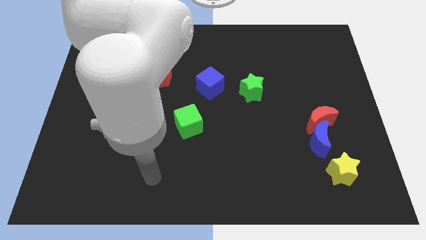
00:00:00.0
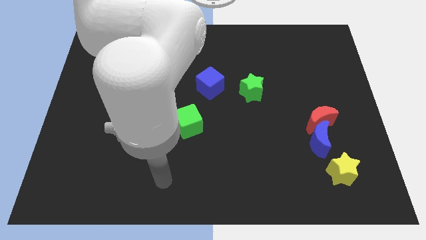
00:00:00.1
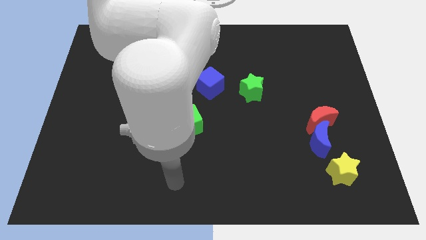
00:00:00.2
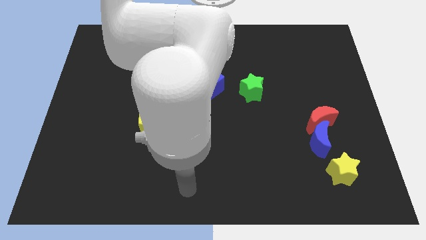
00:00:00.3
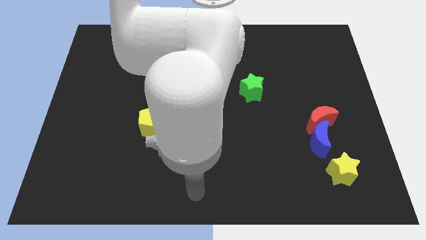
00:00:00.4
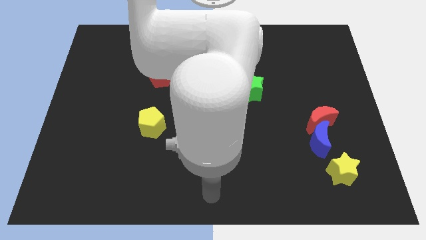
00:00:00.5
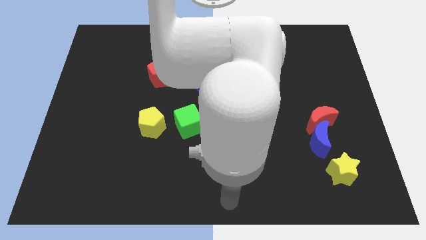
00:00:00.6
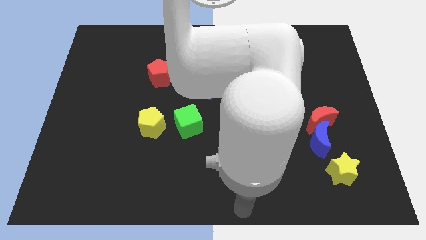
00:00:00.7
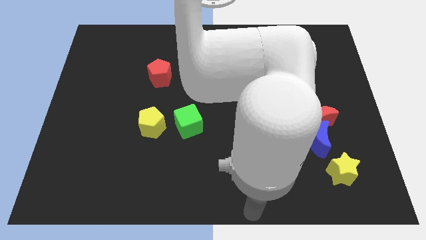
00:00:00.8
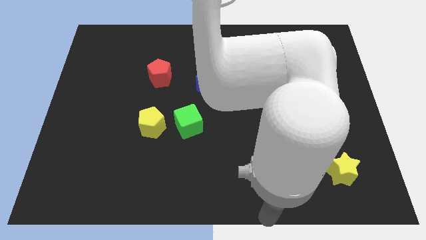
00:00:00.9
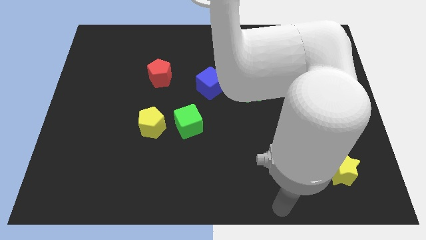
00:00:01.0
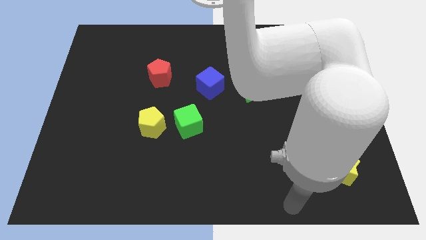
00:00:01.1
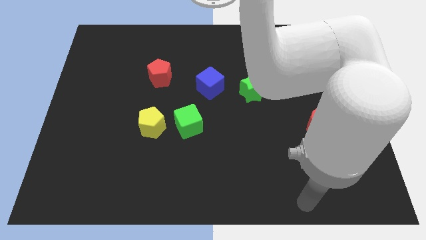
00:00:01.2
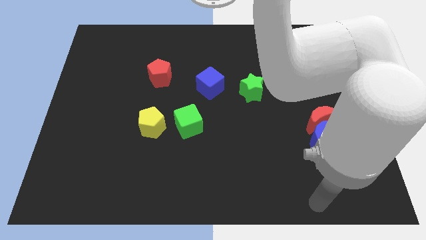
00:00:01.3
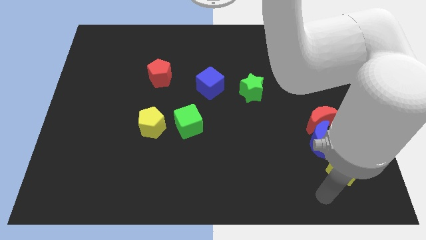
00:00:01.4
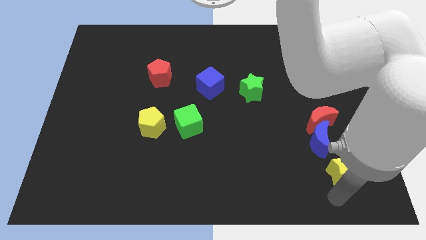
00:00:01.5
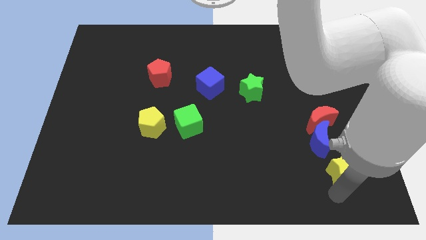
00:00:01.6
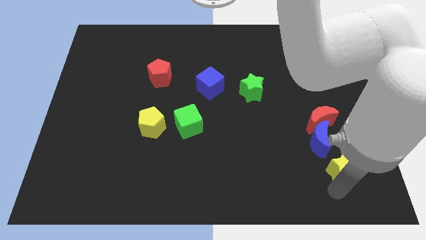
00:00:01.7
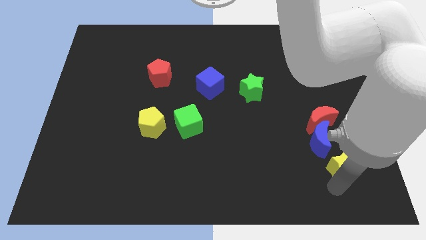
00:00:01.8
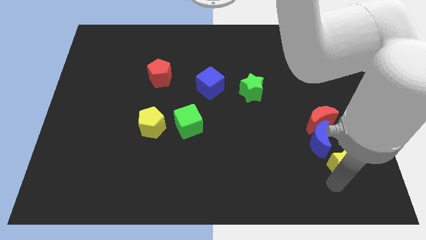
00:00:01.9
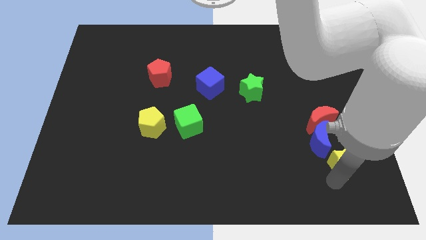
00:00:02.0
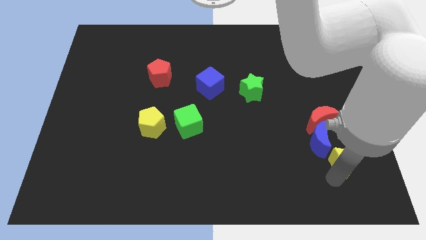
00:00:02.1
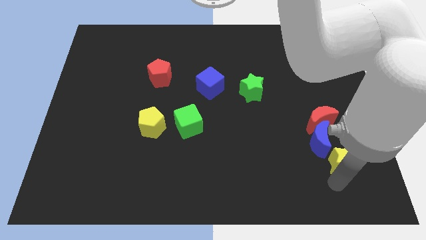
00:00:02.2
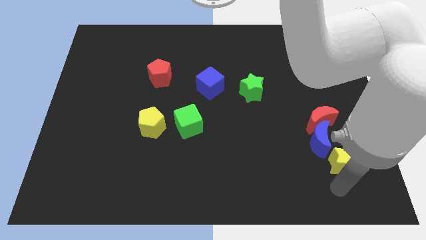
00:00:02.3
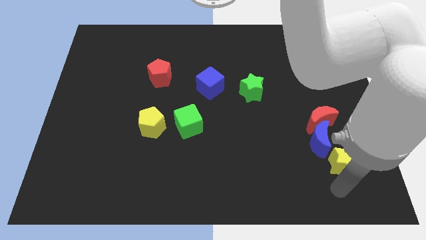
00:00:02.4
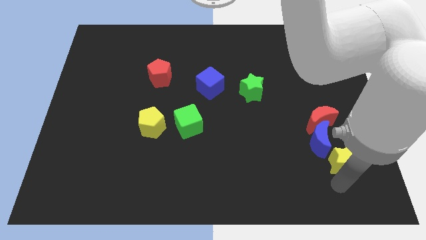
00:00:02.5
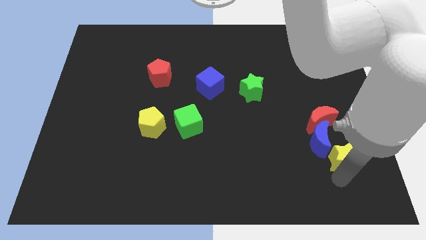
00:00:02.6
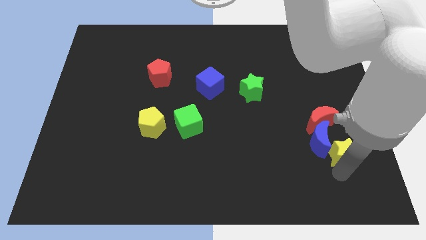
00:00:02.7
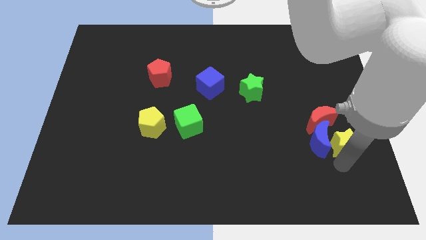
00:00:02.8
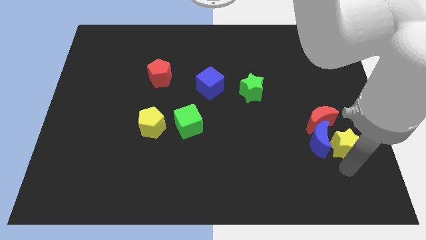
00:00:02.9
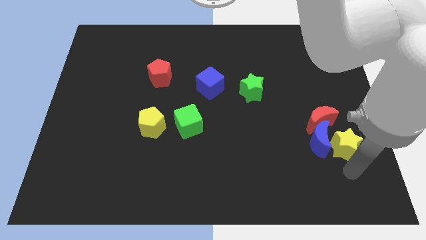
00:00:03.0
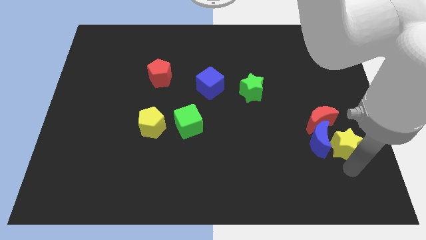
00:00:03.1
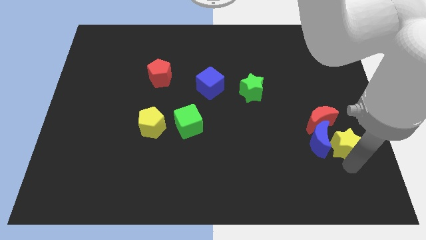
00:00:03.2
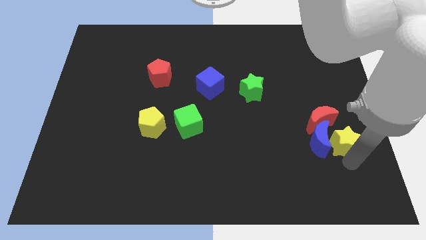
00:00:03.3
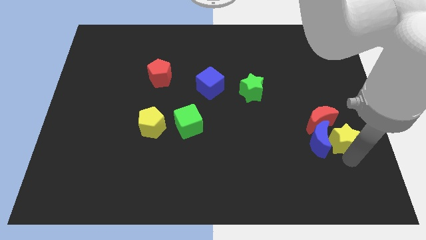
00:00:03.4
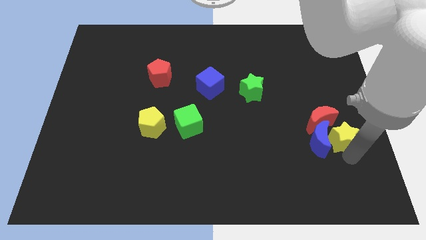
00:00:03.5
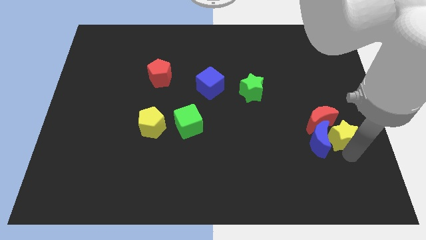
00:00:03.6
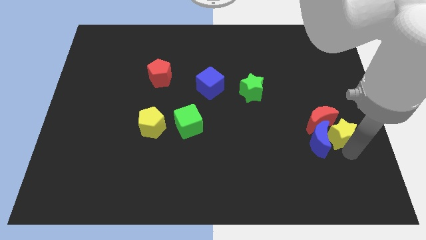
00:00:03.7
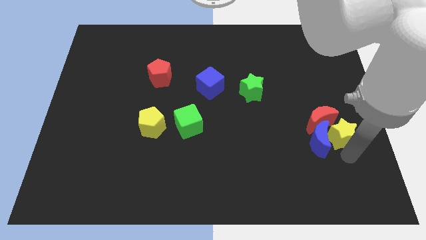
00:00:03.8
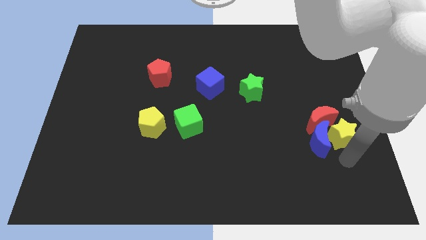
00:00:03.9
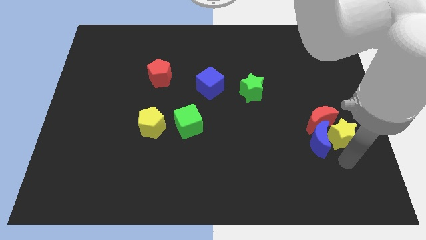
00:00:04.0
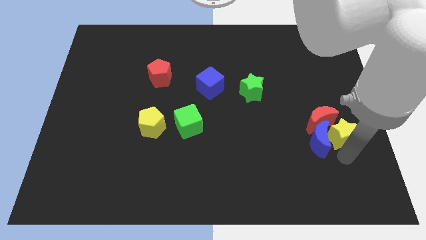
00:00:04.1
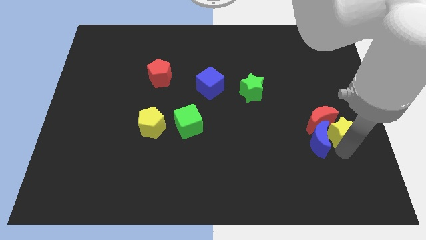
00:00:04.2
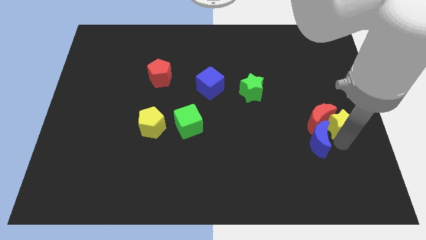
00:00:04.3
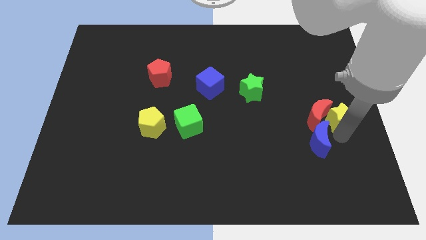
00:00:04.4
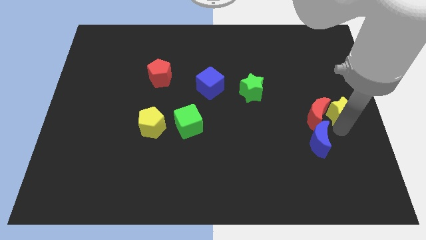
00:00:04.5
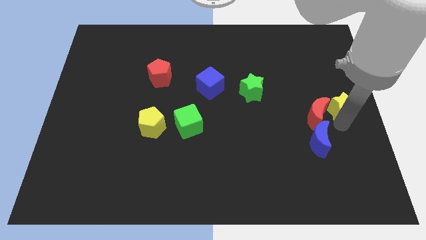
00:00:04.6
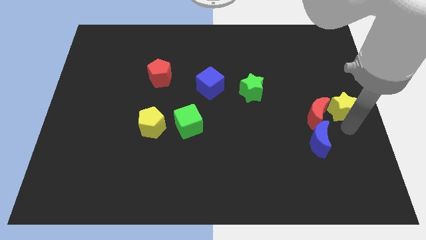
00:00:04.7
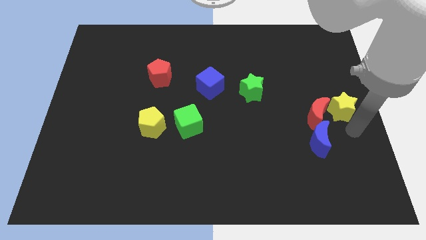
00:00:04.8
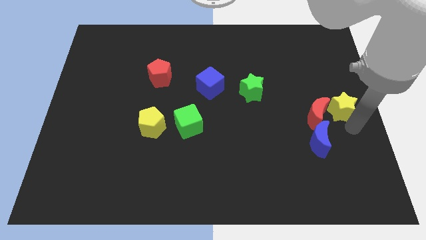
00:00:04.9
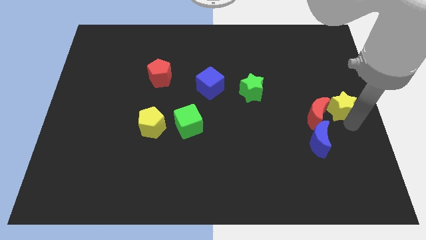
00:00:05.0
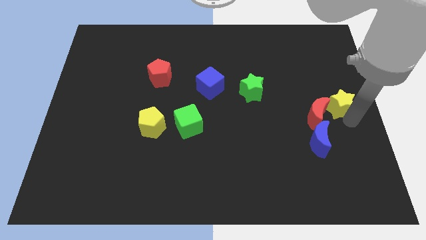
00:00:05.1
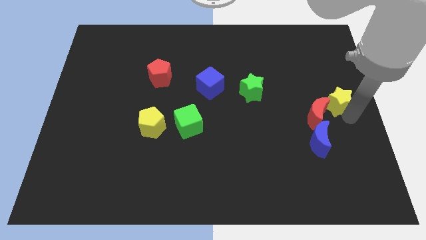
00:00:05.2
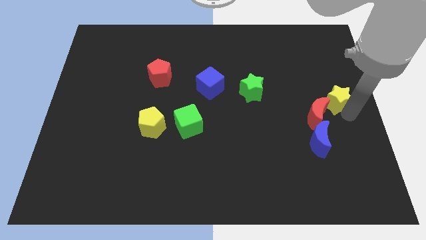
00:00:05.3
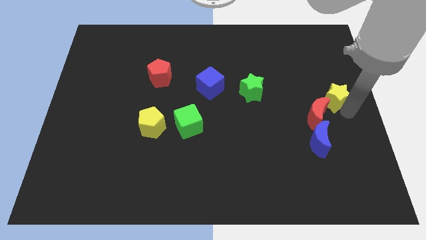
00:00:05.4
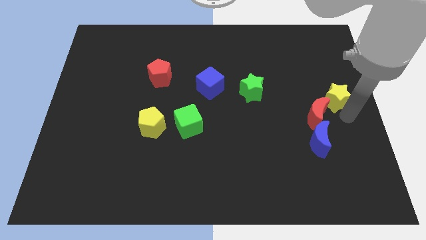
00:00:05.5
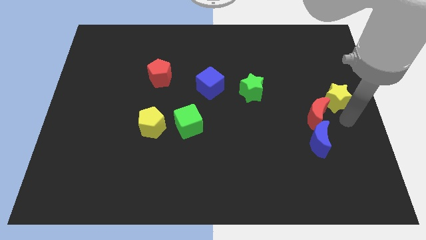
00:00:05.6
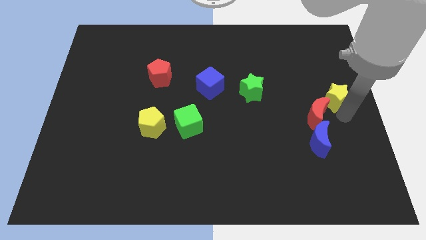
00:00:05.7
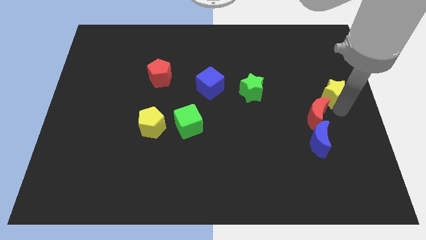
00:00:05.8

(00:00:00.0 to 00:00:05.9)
move the yellow star upwards

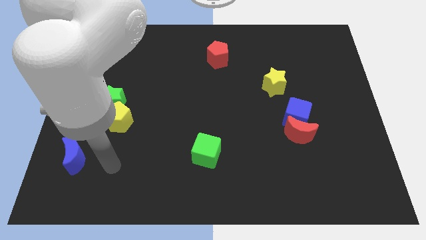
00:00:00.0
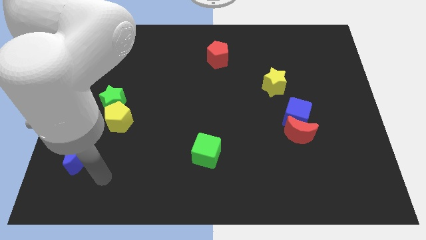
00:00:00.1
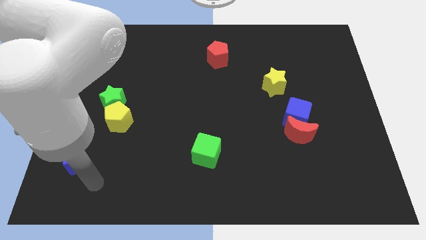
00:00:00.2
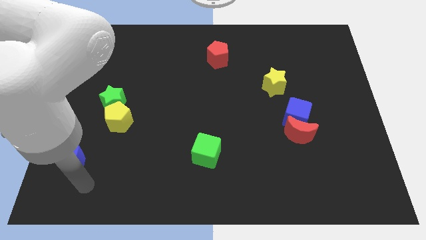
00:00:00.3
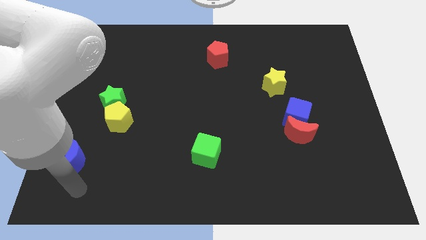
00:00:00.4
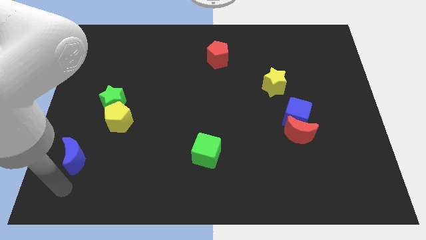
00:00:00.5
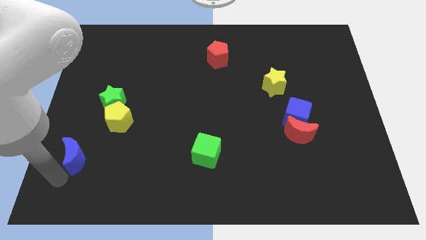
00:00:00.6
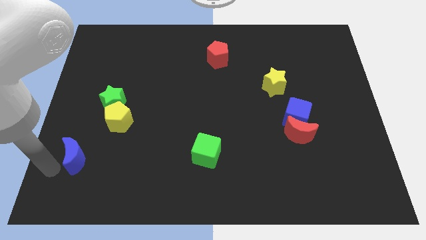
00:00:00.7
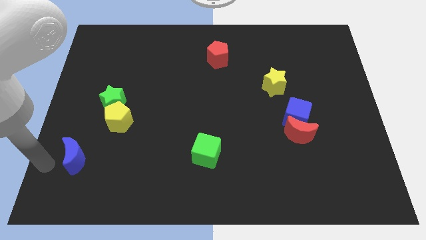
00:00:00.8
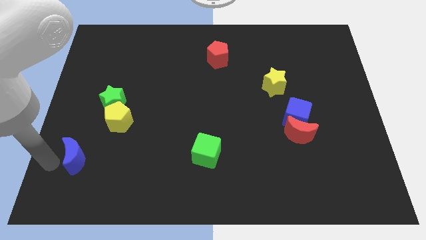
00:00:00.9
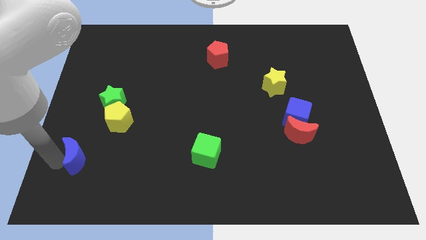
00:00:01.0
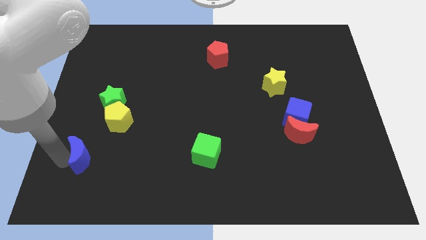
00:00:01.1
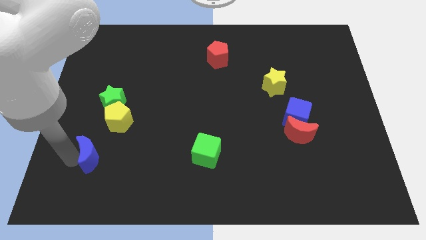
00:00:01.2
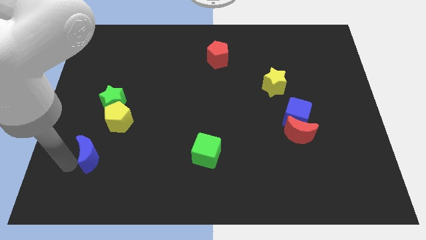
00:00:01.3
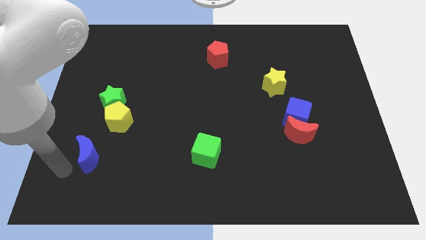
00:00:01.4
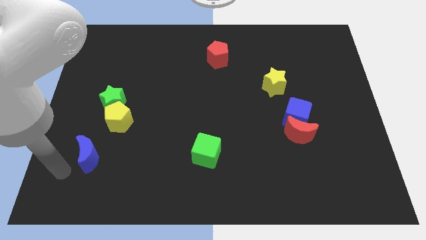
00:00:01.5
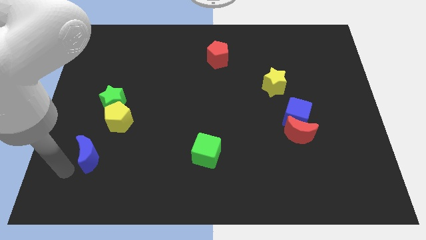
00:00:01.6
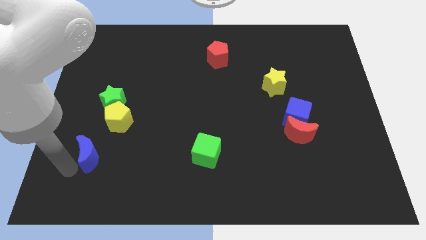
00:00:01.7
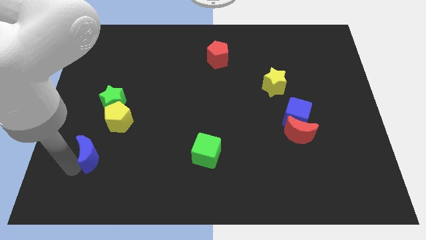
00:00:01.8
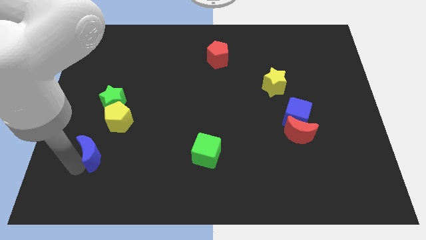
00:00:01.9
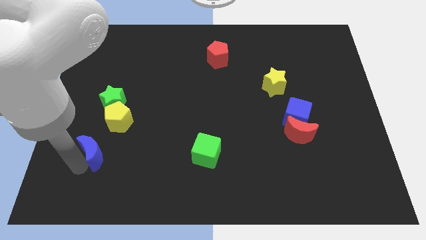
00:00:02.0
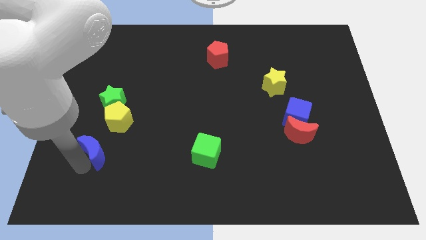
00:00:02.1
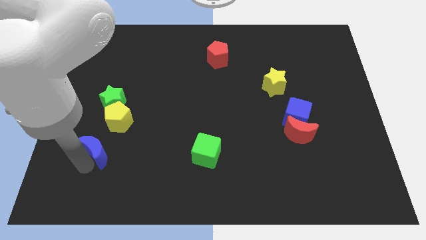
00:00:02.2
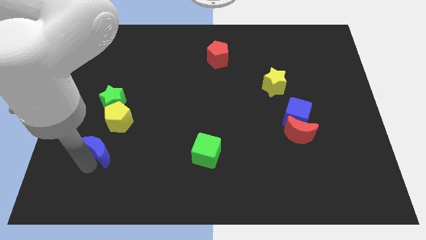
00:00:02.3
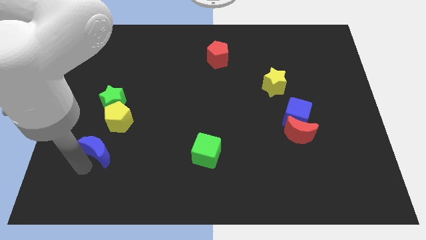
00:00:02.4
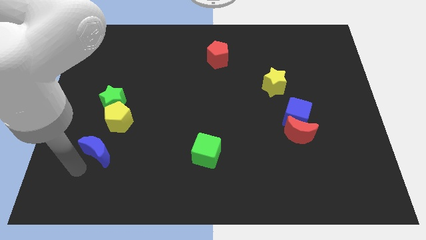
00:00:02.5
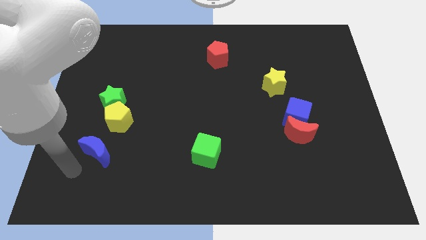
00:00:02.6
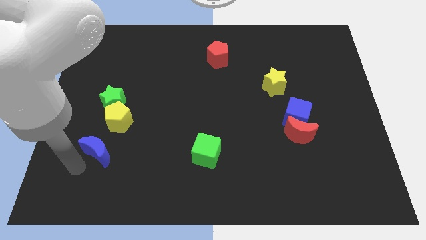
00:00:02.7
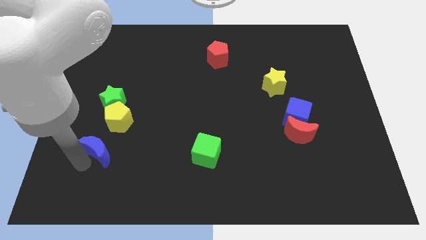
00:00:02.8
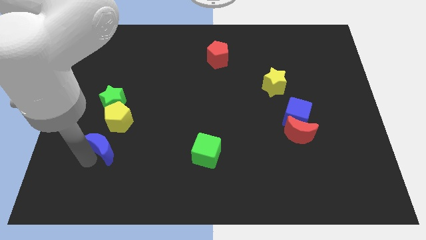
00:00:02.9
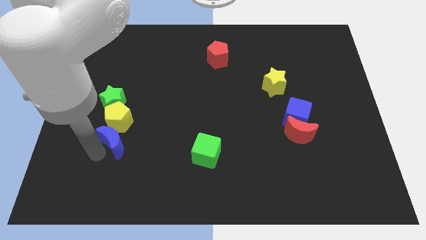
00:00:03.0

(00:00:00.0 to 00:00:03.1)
push the blue moon upwards and right a little bit
